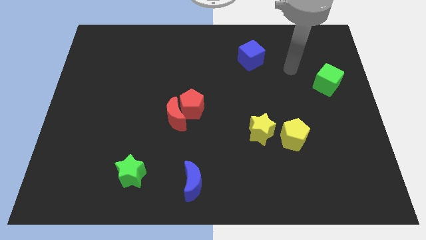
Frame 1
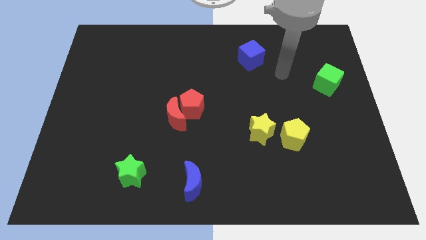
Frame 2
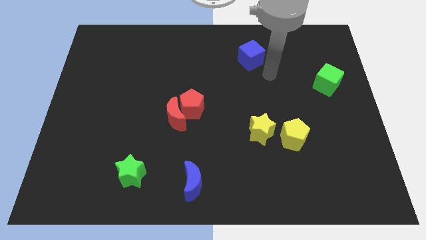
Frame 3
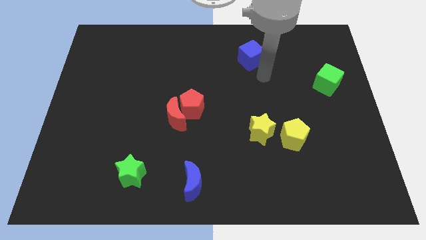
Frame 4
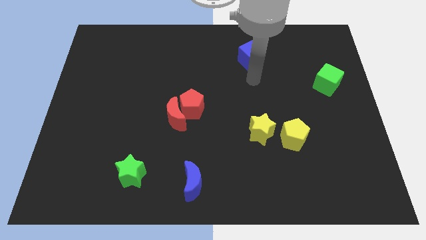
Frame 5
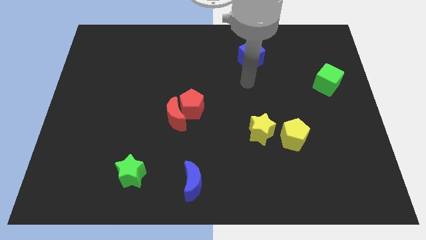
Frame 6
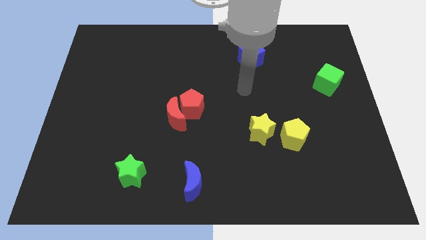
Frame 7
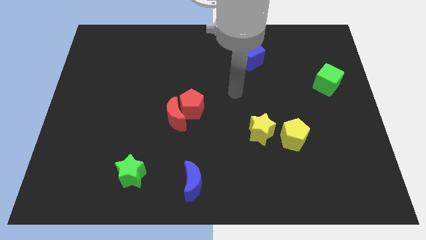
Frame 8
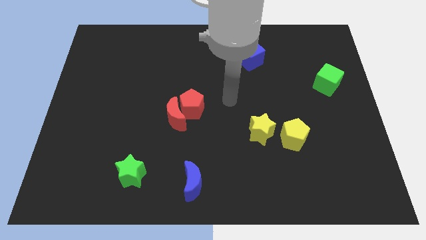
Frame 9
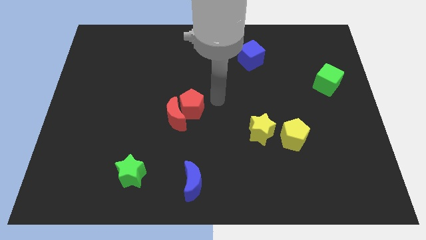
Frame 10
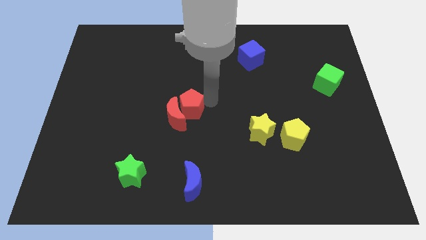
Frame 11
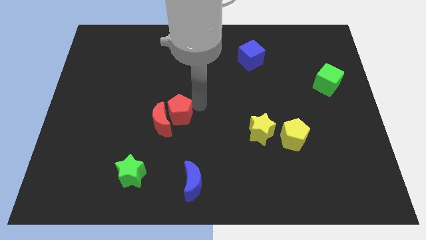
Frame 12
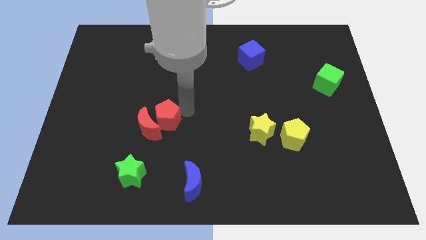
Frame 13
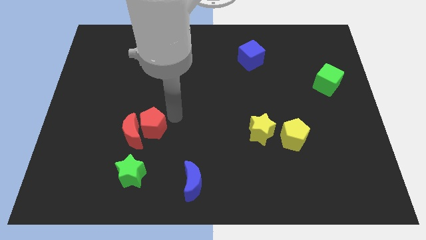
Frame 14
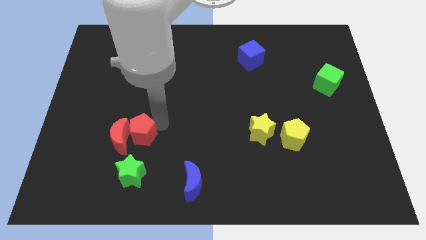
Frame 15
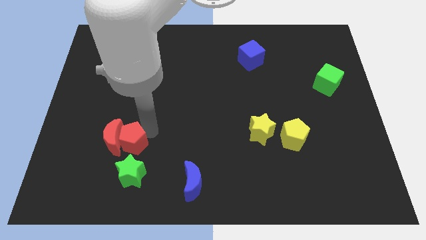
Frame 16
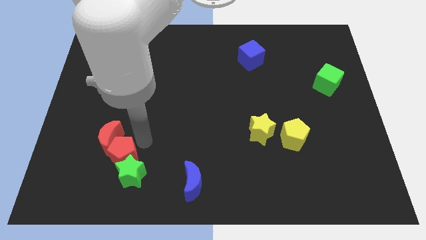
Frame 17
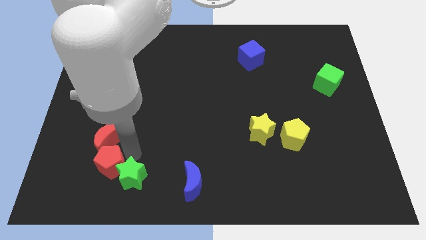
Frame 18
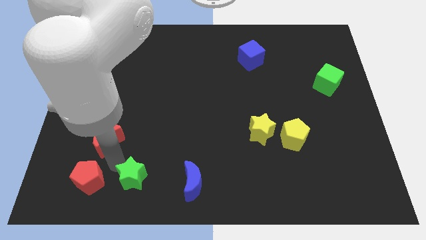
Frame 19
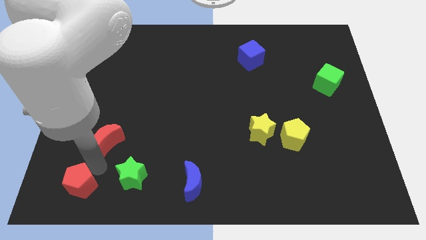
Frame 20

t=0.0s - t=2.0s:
pull the red moon apart from the red pentagon

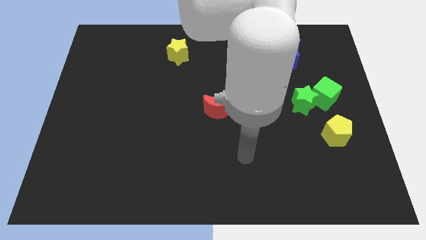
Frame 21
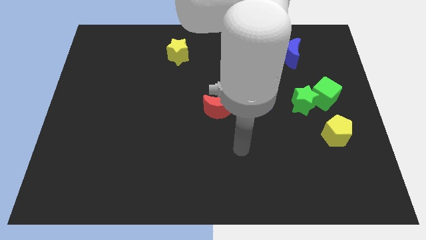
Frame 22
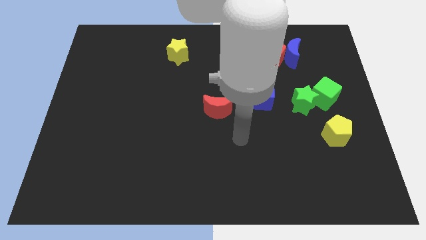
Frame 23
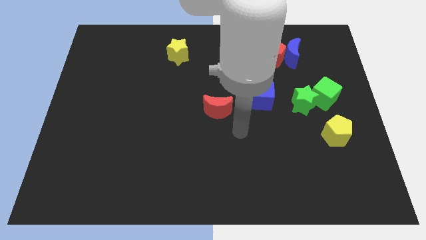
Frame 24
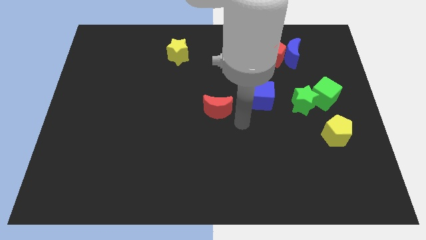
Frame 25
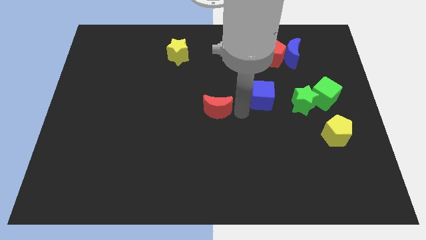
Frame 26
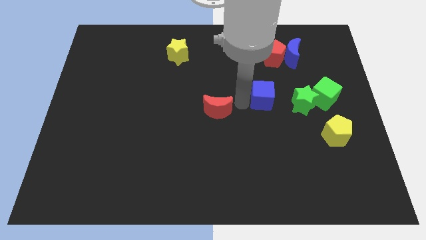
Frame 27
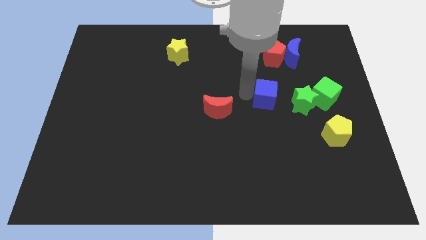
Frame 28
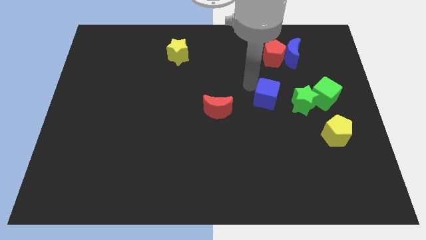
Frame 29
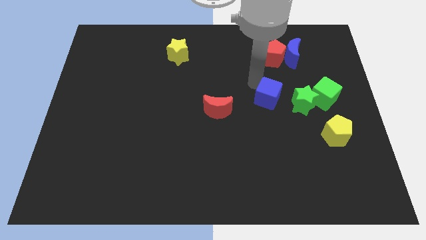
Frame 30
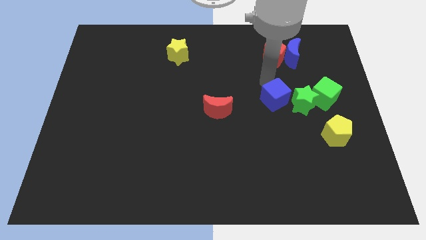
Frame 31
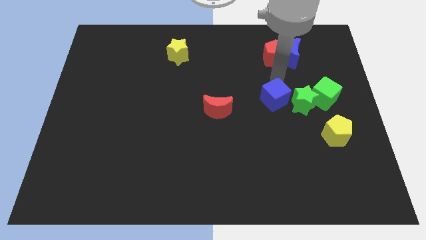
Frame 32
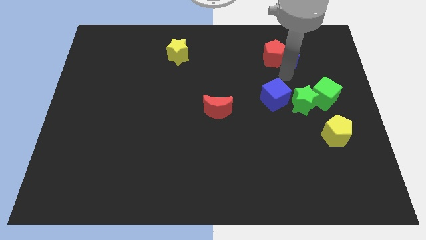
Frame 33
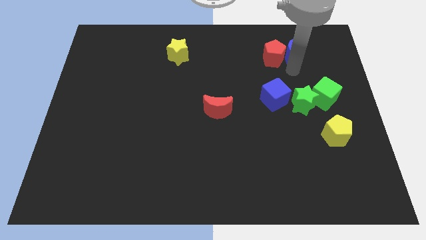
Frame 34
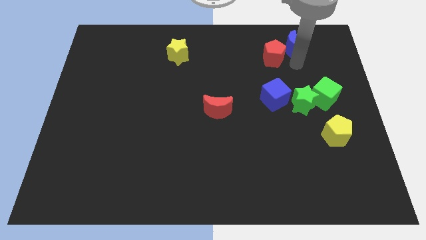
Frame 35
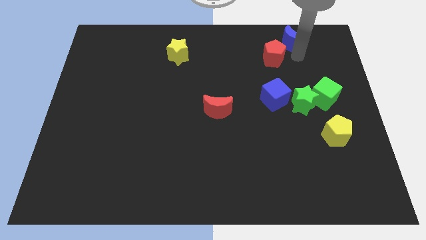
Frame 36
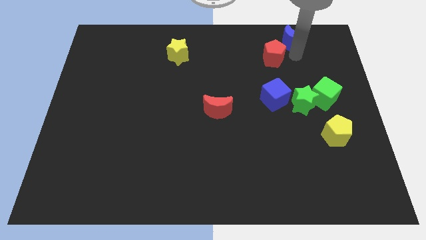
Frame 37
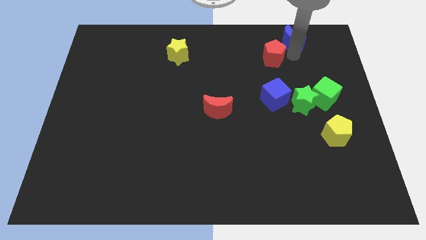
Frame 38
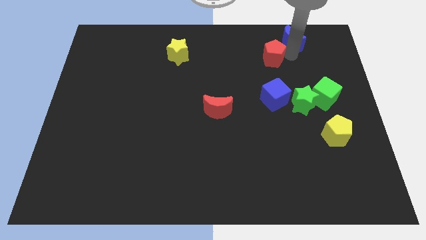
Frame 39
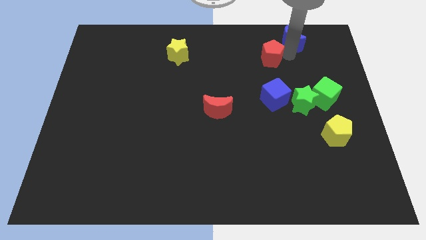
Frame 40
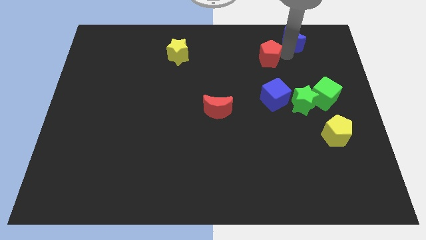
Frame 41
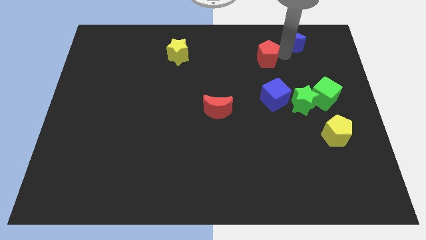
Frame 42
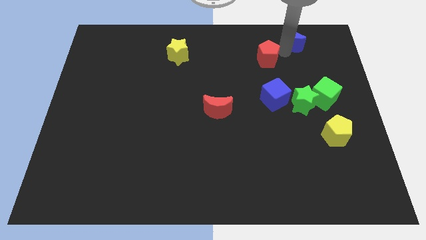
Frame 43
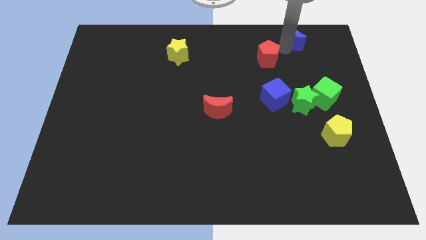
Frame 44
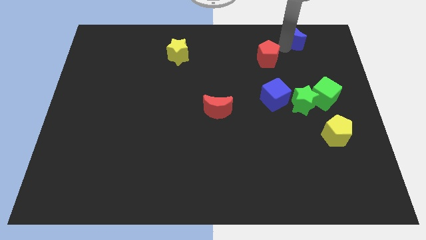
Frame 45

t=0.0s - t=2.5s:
pull the red pentagon apart from the blue moon

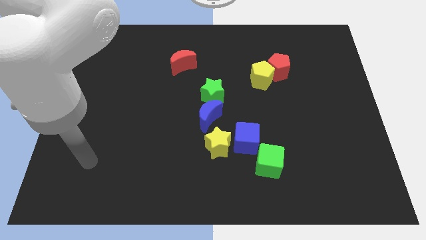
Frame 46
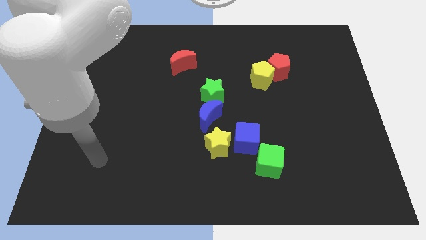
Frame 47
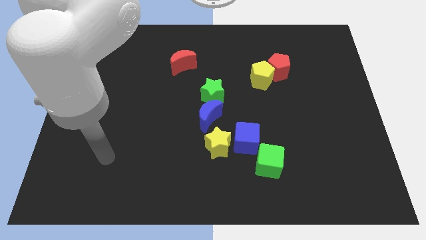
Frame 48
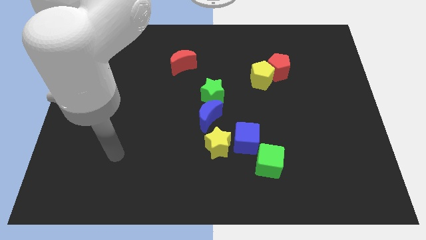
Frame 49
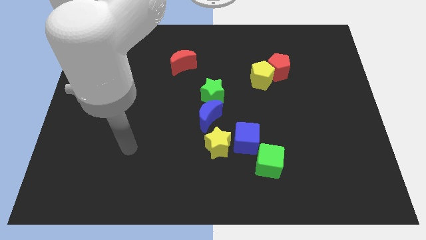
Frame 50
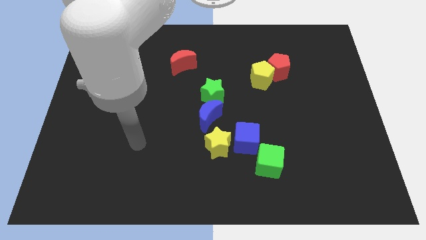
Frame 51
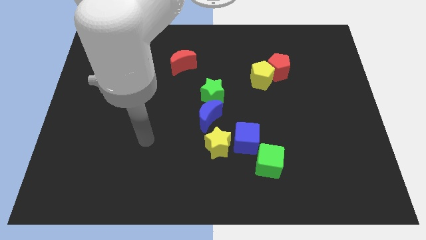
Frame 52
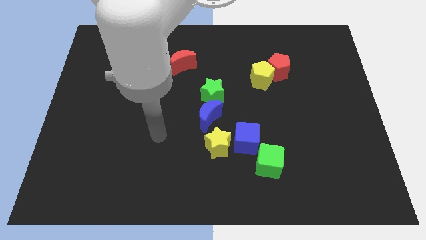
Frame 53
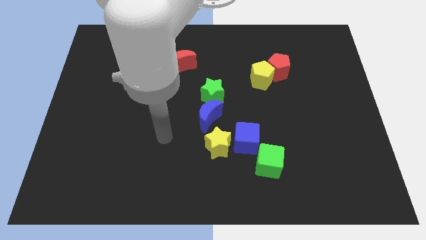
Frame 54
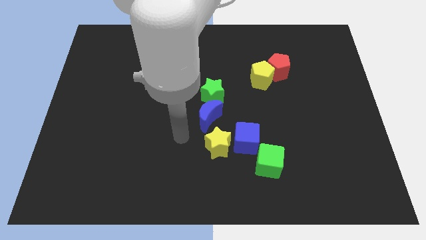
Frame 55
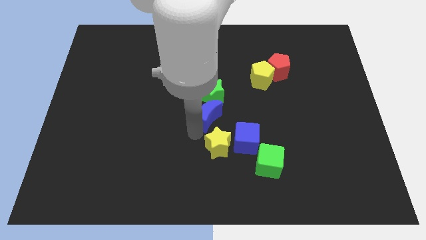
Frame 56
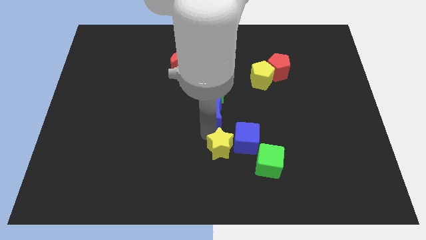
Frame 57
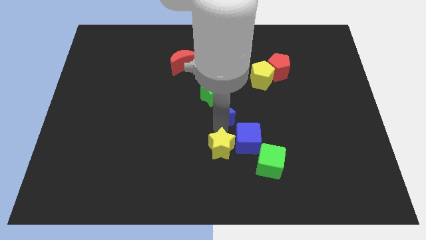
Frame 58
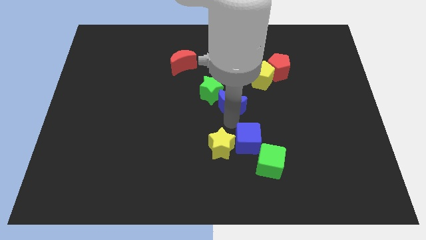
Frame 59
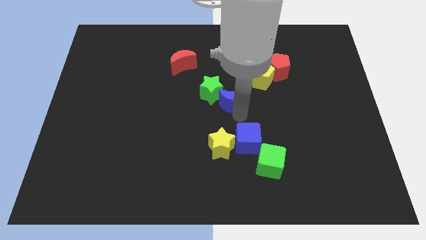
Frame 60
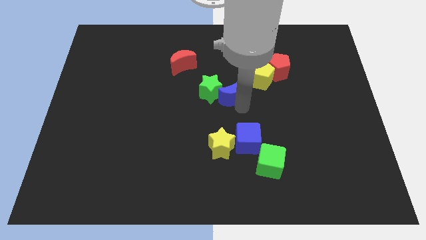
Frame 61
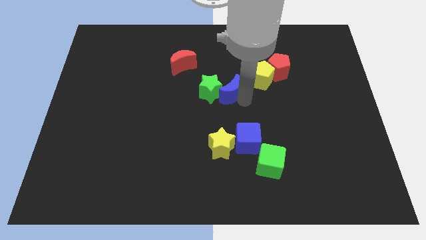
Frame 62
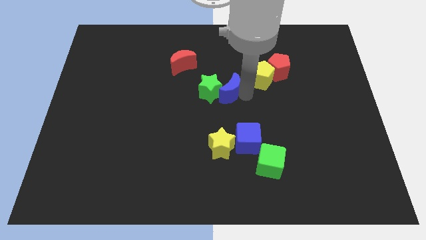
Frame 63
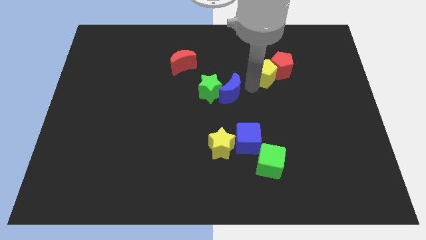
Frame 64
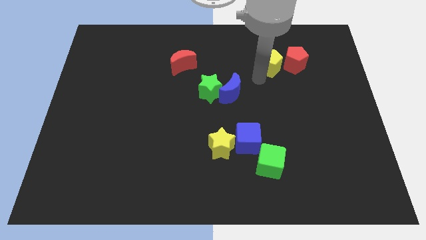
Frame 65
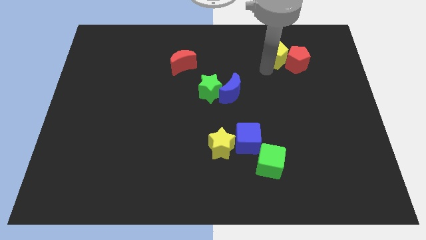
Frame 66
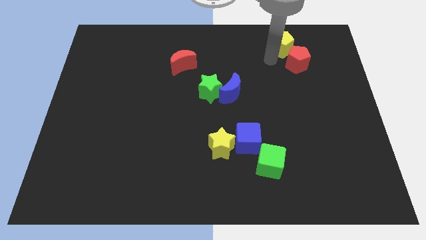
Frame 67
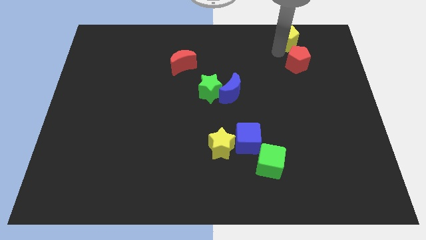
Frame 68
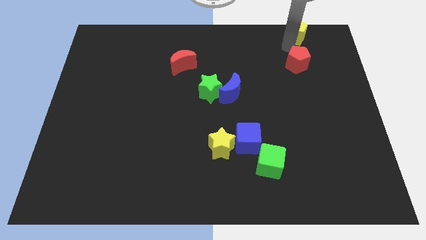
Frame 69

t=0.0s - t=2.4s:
pull the red pentagon apart from the yellow pentagon

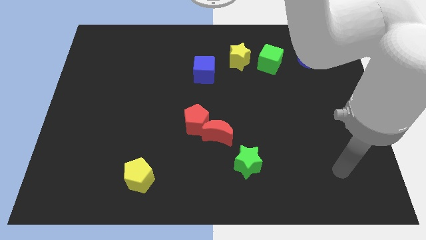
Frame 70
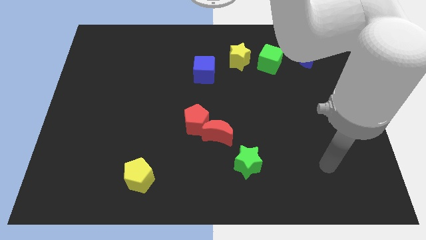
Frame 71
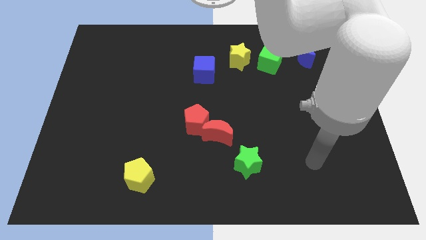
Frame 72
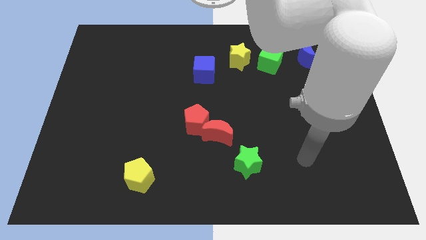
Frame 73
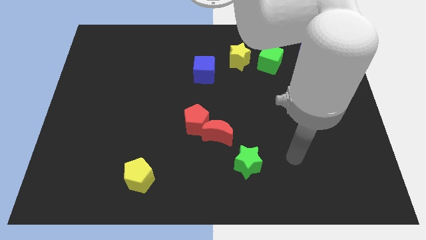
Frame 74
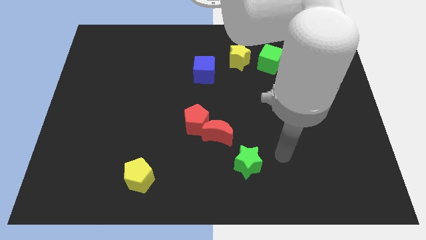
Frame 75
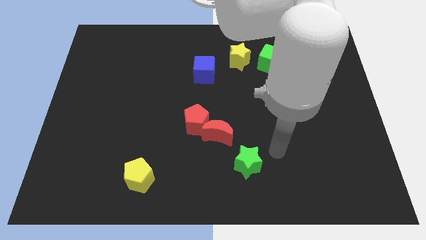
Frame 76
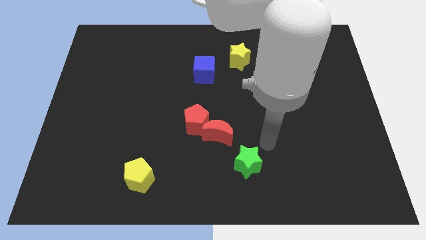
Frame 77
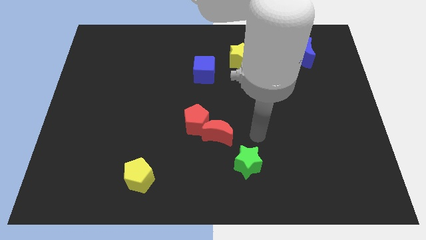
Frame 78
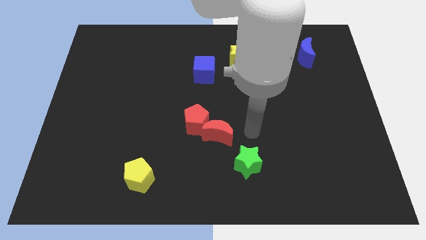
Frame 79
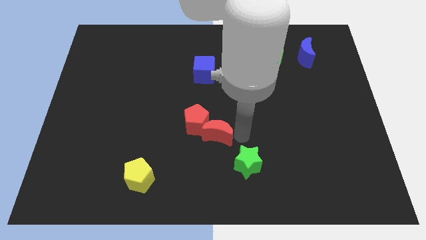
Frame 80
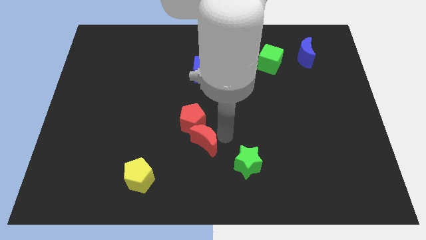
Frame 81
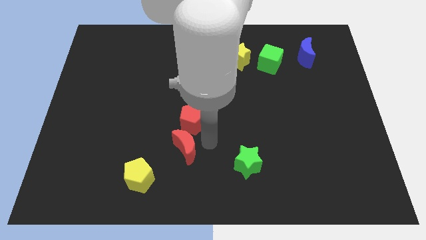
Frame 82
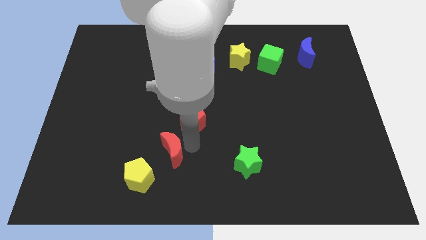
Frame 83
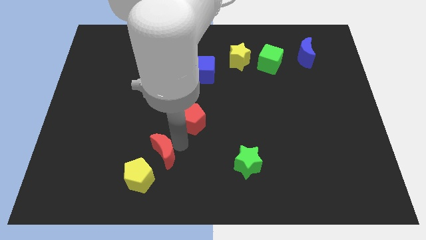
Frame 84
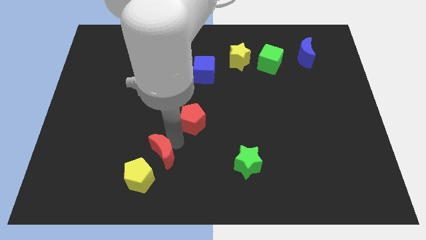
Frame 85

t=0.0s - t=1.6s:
separate the red pentagon from the red moon

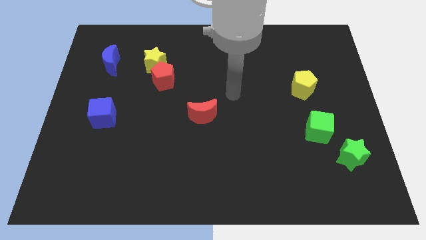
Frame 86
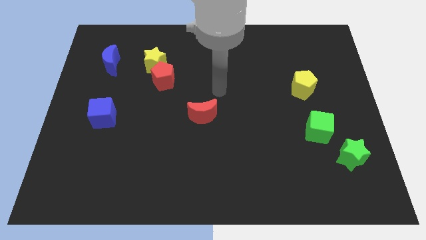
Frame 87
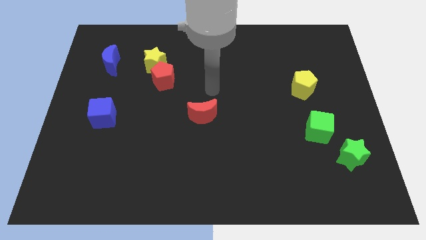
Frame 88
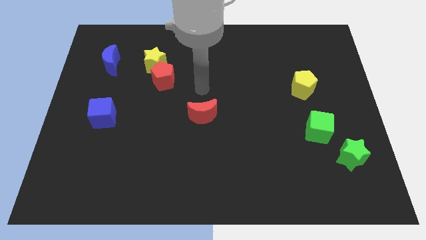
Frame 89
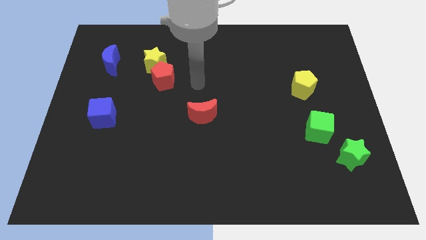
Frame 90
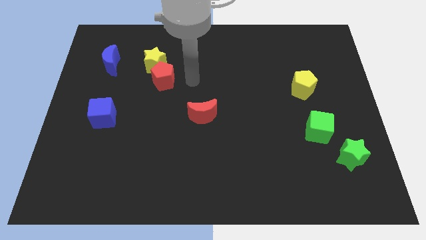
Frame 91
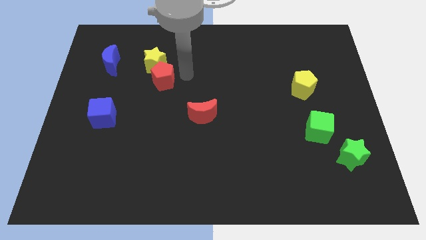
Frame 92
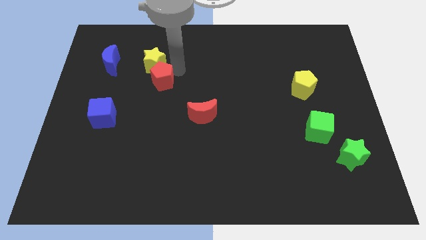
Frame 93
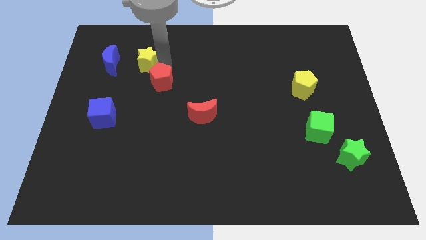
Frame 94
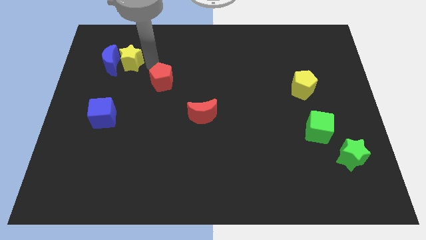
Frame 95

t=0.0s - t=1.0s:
pull the red pentagon apart from the yellow star
